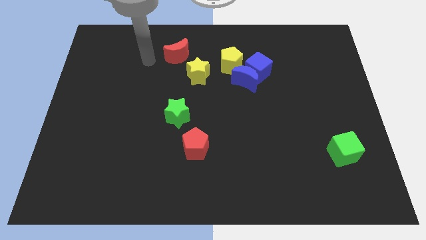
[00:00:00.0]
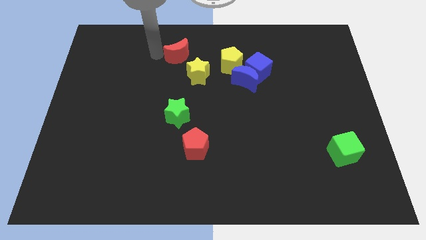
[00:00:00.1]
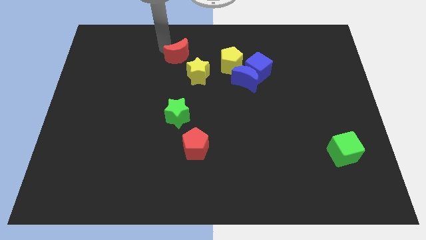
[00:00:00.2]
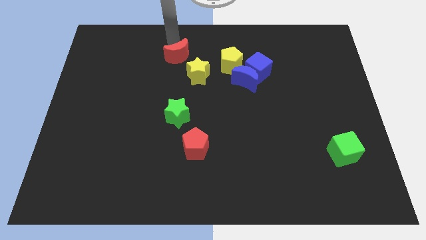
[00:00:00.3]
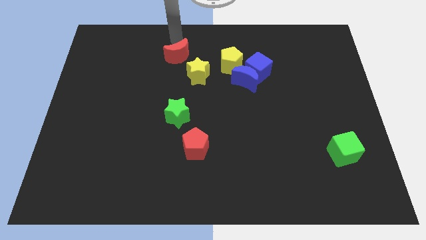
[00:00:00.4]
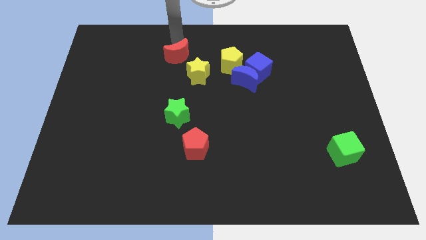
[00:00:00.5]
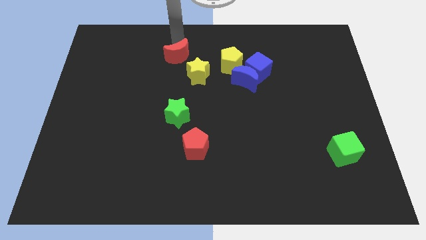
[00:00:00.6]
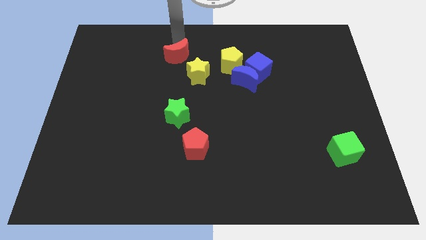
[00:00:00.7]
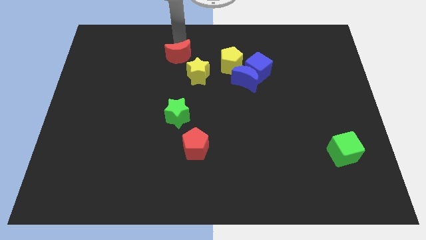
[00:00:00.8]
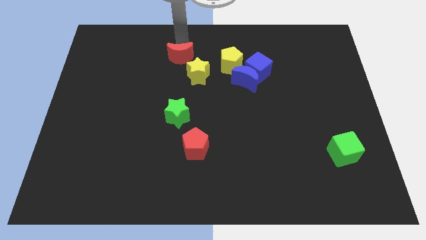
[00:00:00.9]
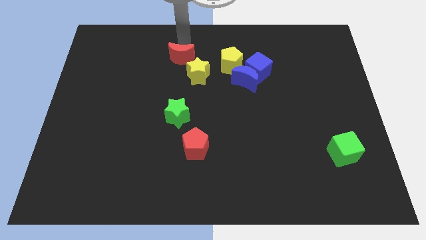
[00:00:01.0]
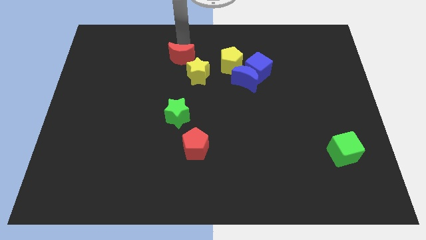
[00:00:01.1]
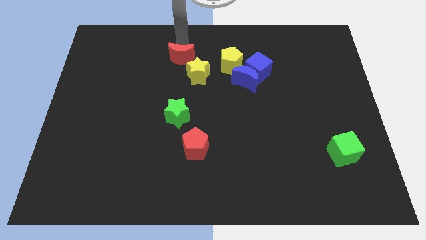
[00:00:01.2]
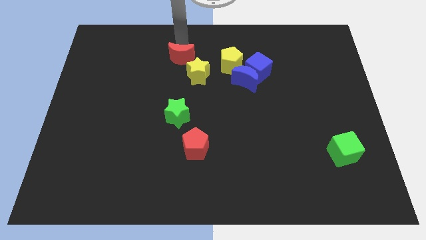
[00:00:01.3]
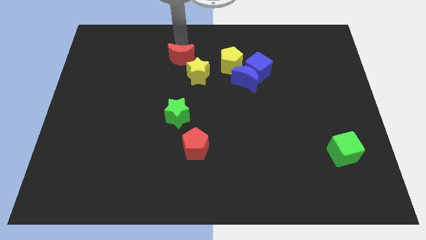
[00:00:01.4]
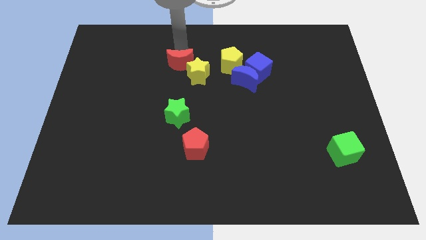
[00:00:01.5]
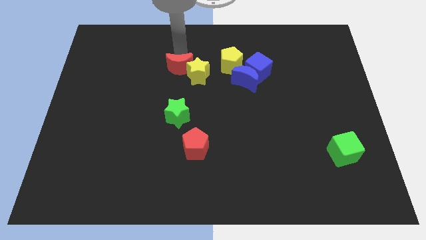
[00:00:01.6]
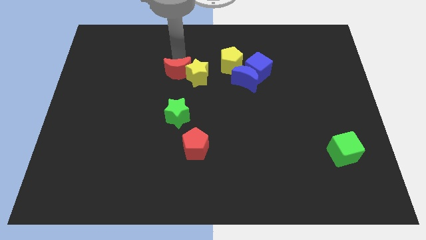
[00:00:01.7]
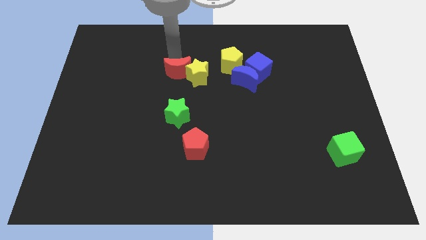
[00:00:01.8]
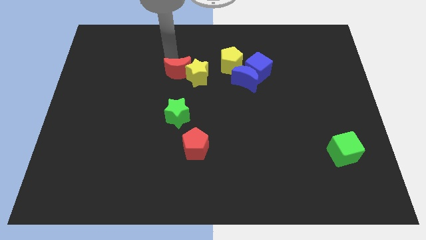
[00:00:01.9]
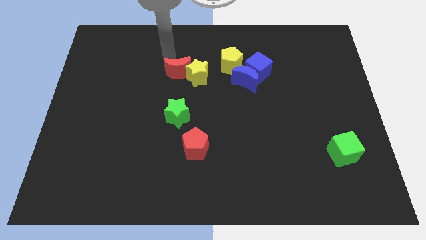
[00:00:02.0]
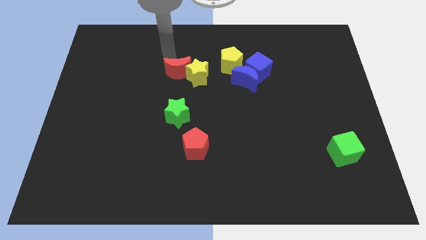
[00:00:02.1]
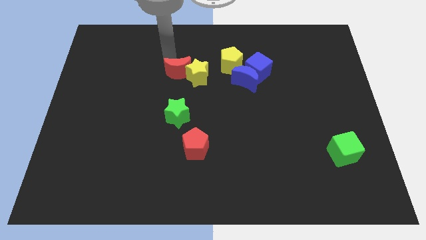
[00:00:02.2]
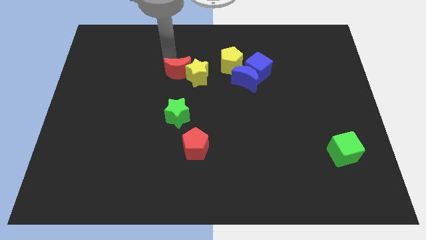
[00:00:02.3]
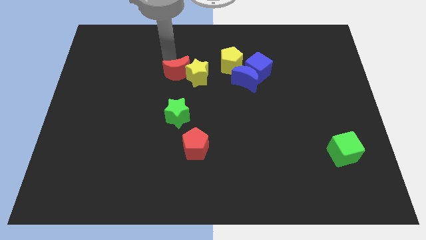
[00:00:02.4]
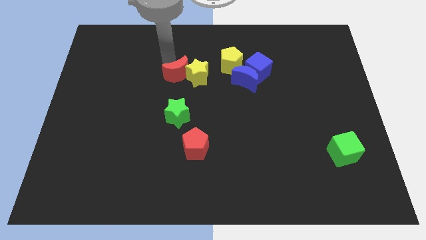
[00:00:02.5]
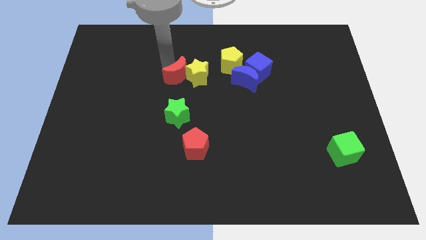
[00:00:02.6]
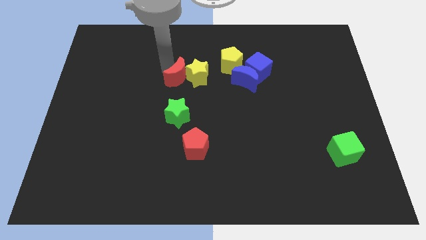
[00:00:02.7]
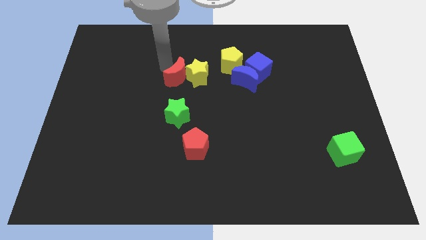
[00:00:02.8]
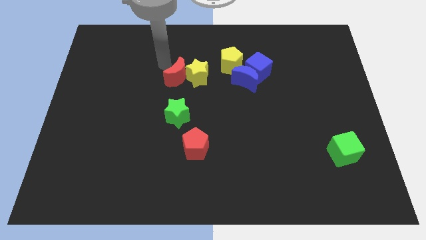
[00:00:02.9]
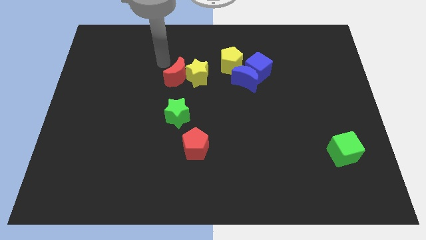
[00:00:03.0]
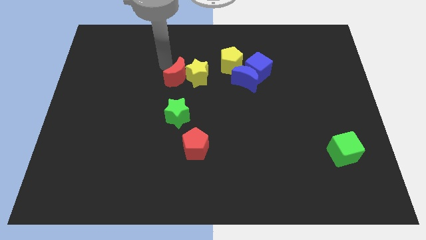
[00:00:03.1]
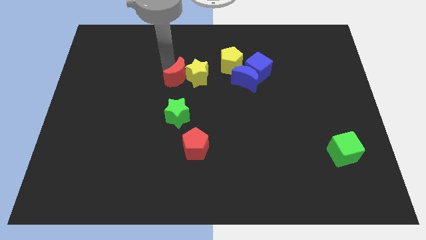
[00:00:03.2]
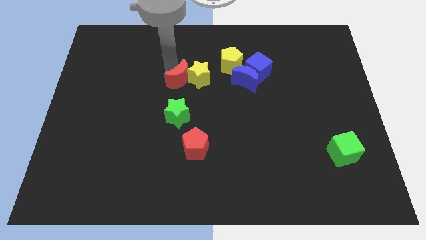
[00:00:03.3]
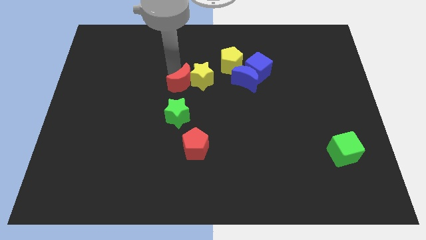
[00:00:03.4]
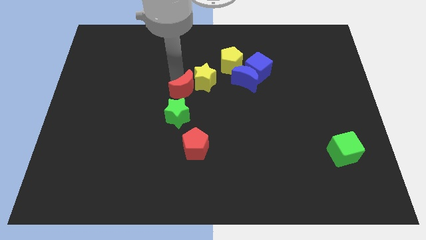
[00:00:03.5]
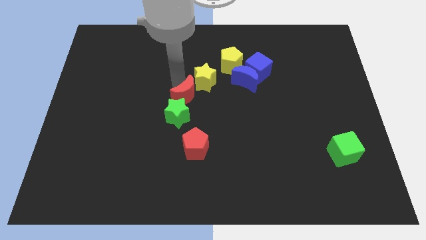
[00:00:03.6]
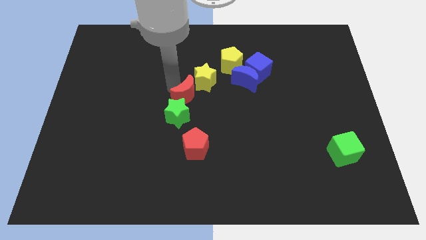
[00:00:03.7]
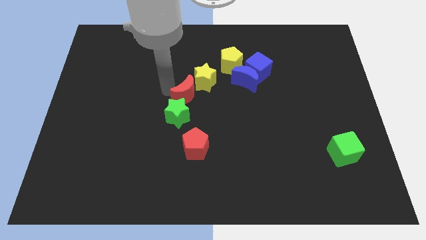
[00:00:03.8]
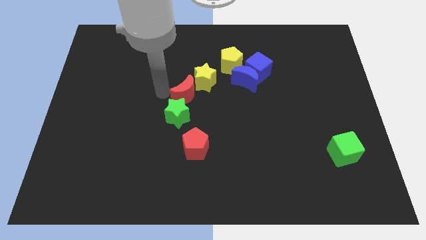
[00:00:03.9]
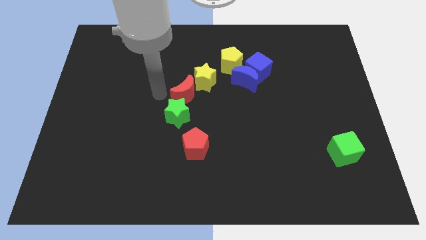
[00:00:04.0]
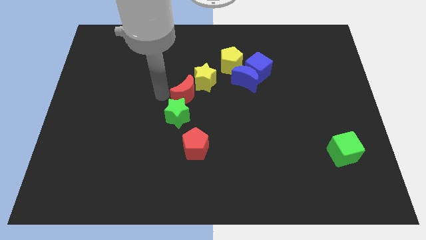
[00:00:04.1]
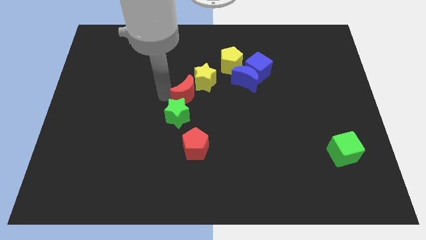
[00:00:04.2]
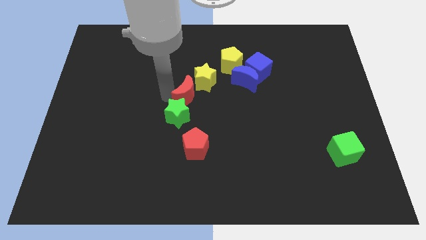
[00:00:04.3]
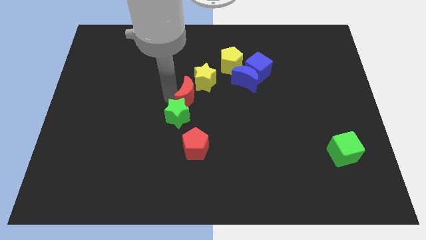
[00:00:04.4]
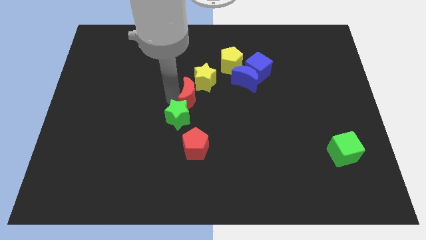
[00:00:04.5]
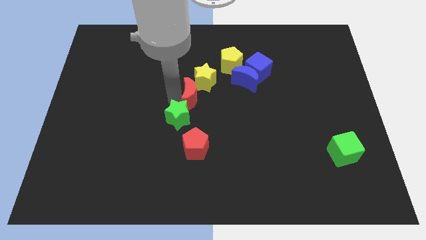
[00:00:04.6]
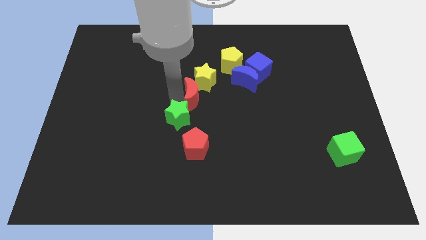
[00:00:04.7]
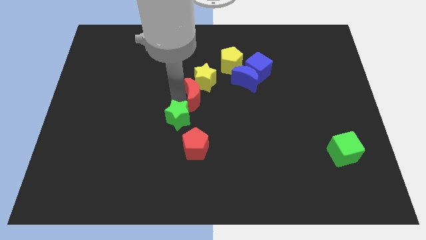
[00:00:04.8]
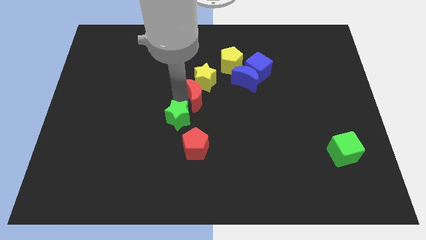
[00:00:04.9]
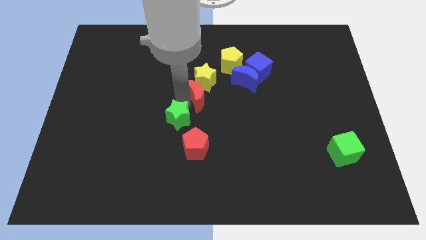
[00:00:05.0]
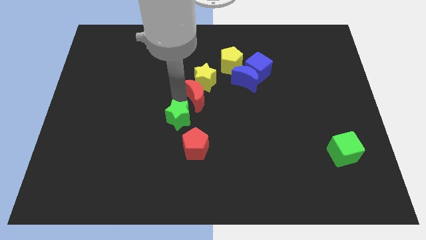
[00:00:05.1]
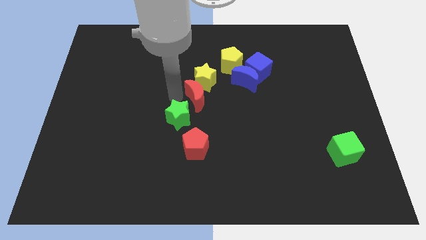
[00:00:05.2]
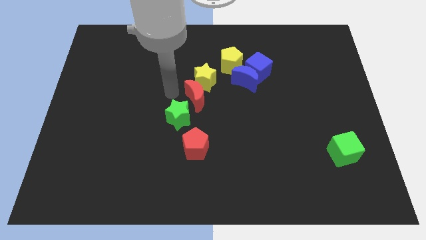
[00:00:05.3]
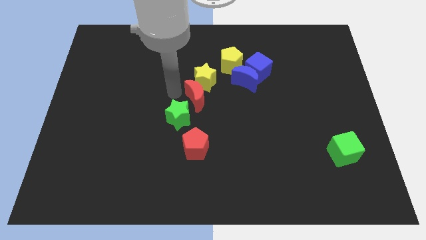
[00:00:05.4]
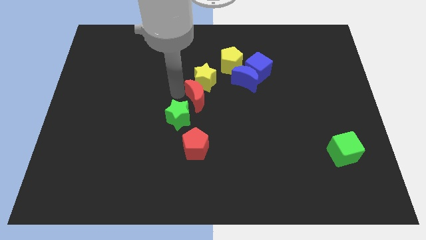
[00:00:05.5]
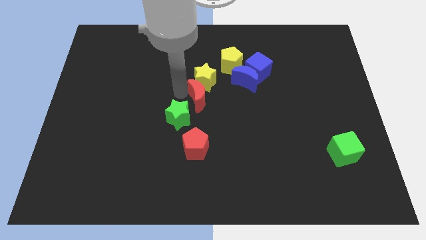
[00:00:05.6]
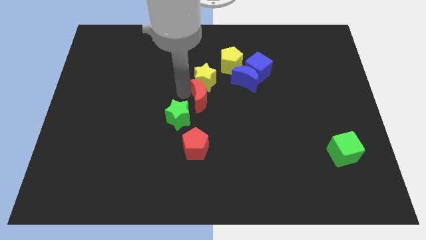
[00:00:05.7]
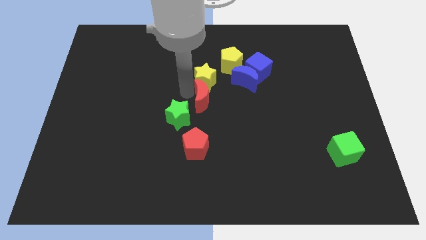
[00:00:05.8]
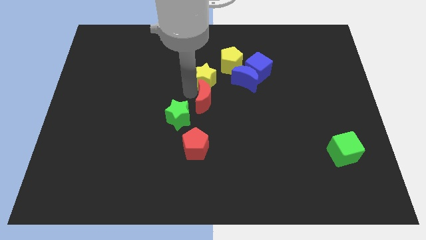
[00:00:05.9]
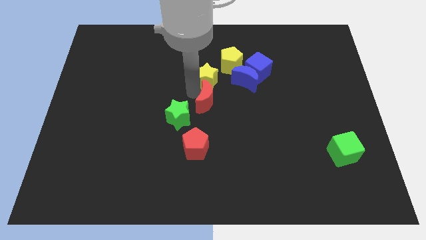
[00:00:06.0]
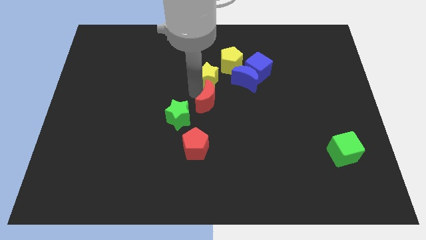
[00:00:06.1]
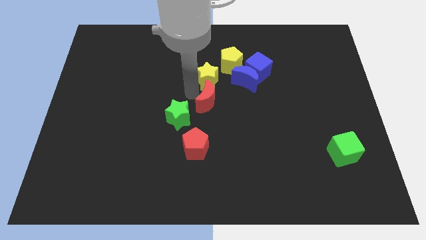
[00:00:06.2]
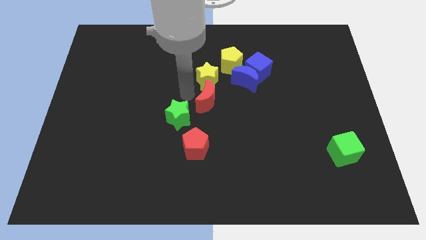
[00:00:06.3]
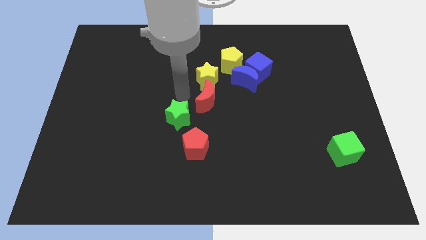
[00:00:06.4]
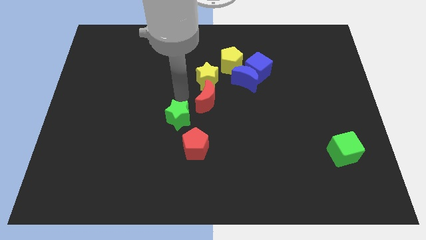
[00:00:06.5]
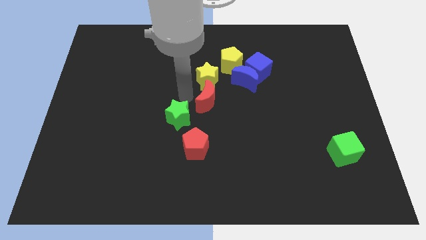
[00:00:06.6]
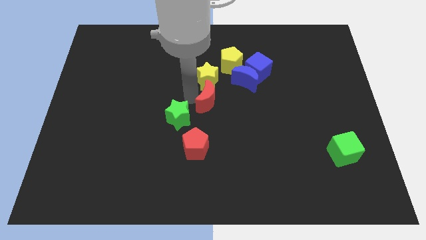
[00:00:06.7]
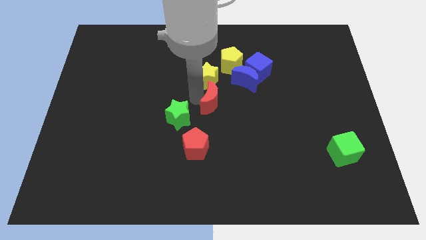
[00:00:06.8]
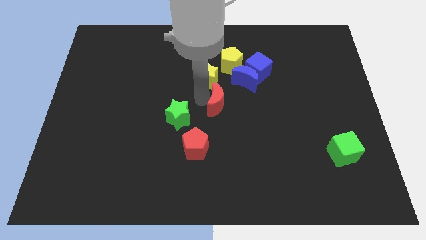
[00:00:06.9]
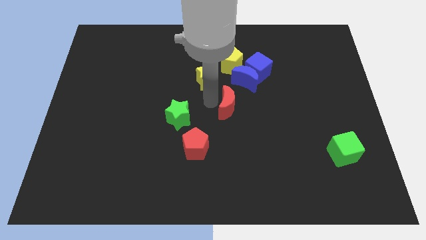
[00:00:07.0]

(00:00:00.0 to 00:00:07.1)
move the red moon down and right

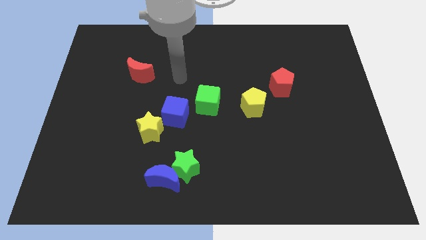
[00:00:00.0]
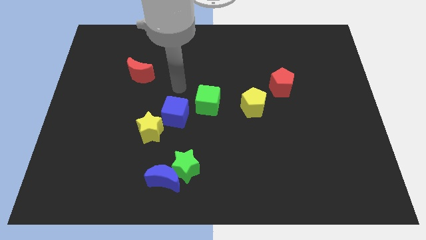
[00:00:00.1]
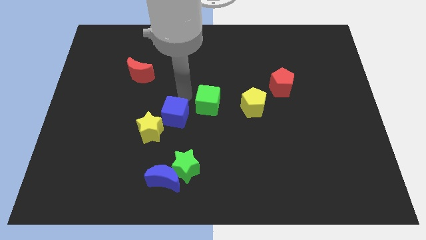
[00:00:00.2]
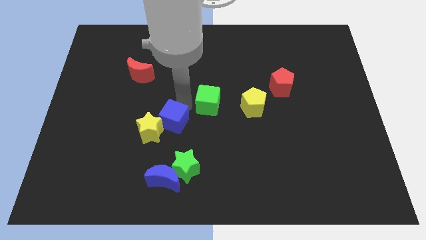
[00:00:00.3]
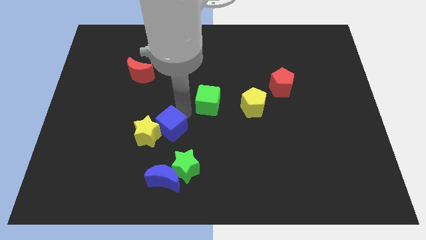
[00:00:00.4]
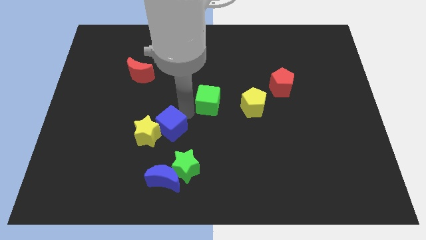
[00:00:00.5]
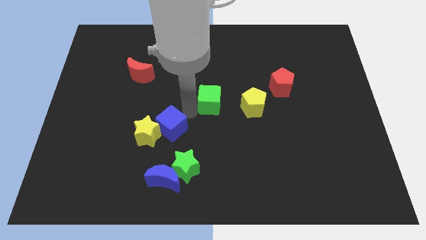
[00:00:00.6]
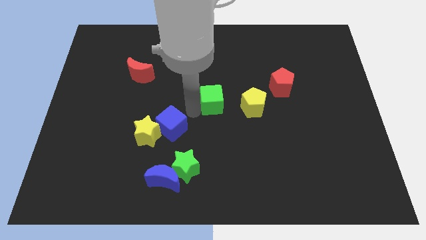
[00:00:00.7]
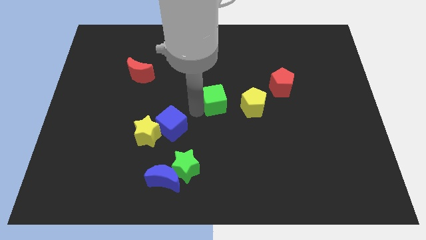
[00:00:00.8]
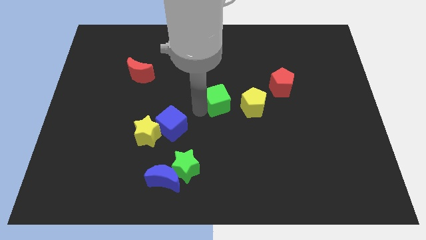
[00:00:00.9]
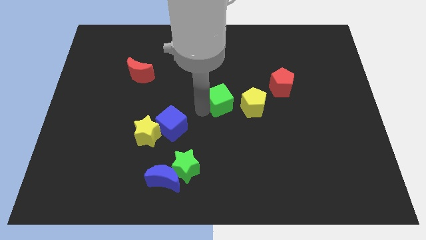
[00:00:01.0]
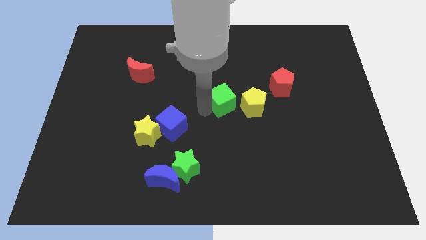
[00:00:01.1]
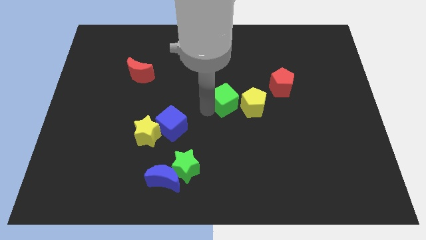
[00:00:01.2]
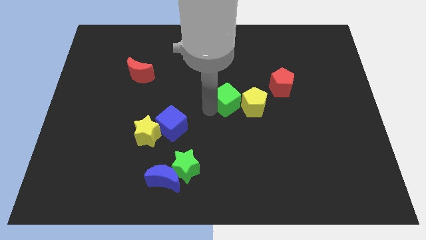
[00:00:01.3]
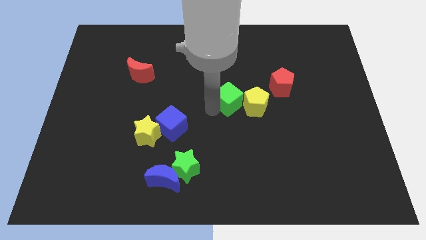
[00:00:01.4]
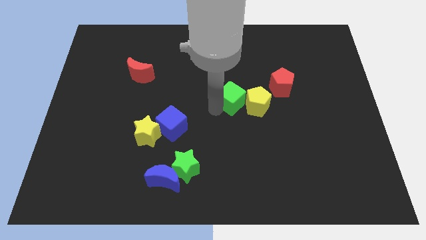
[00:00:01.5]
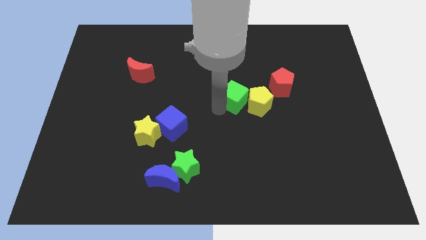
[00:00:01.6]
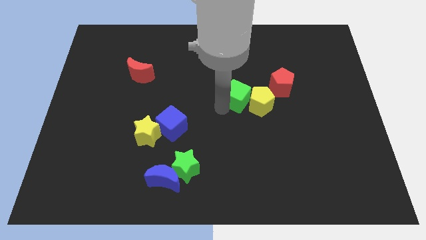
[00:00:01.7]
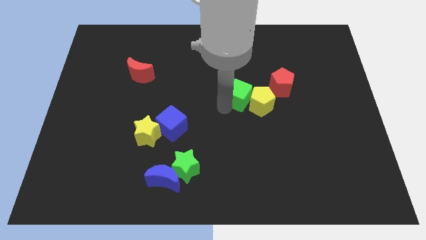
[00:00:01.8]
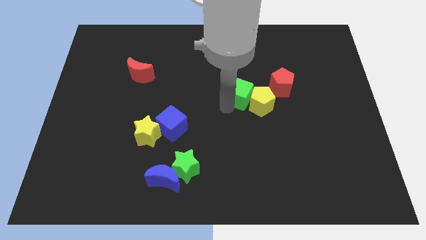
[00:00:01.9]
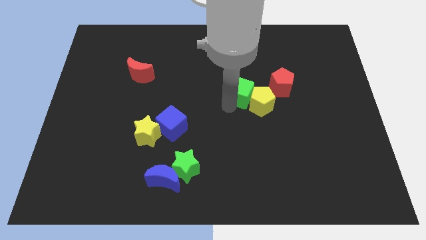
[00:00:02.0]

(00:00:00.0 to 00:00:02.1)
push the green cube a little upwards and to the right
